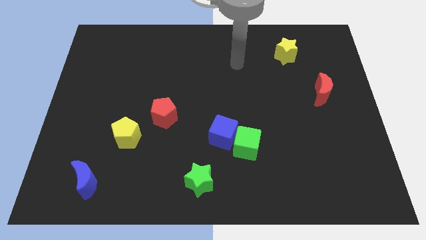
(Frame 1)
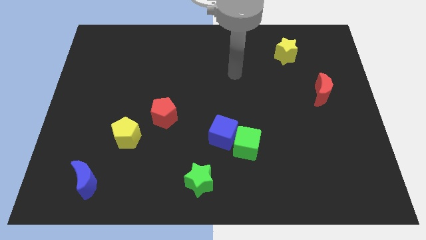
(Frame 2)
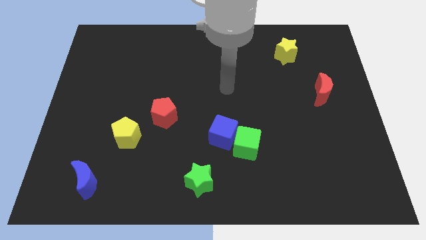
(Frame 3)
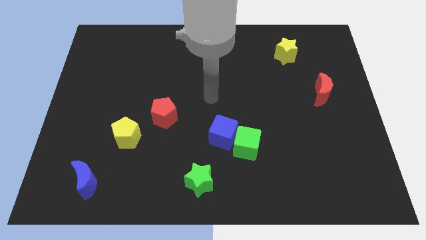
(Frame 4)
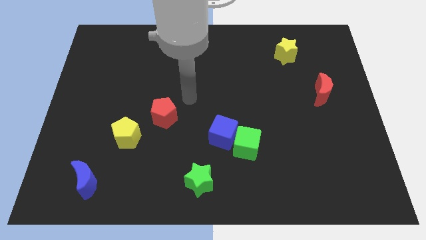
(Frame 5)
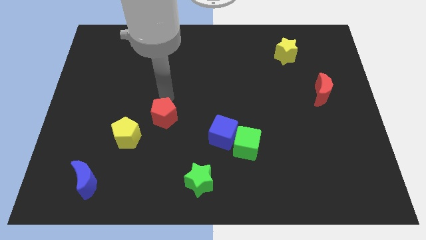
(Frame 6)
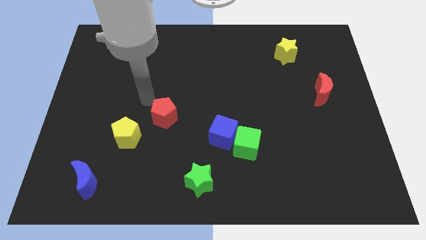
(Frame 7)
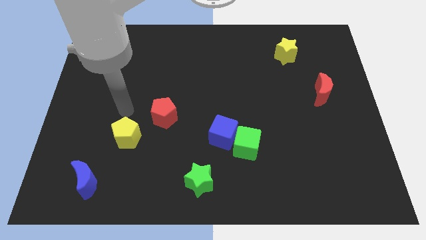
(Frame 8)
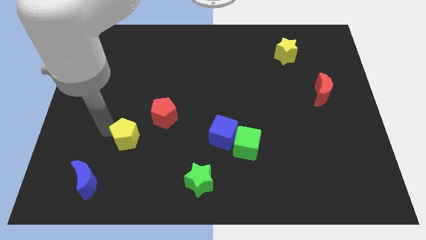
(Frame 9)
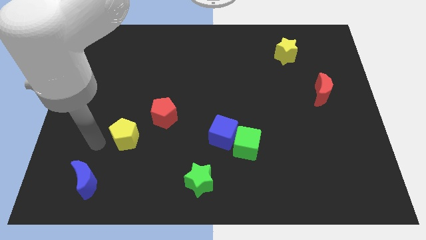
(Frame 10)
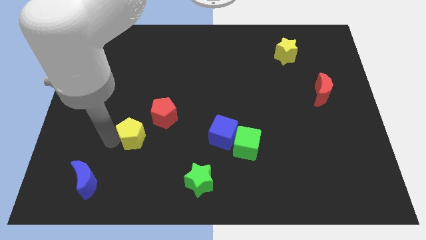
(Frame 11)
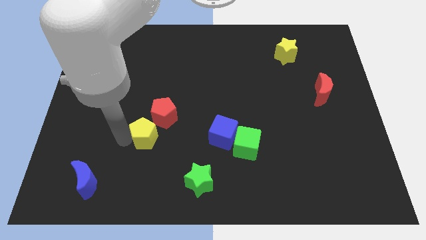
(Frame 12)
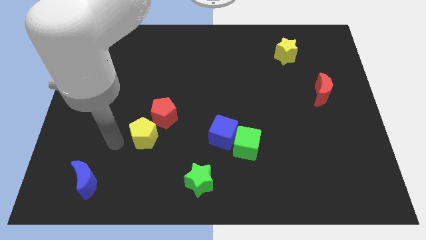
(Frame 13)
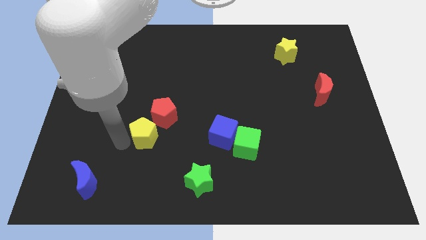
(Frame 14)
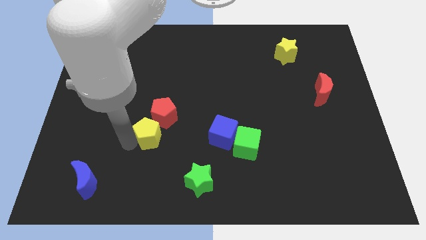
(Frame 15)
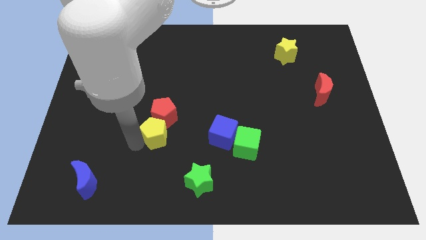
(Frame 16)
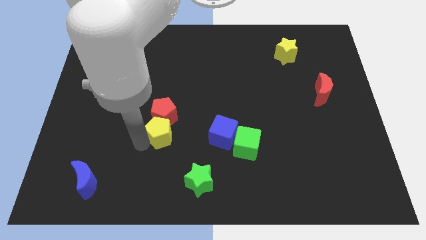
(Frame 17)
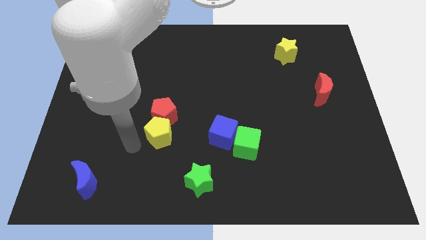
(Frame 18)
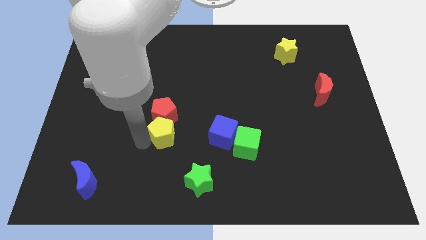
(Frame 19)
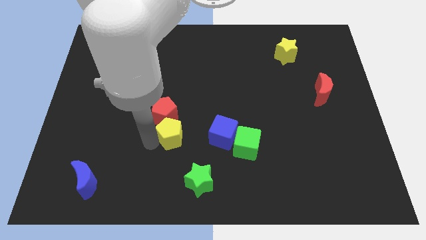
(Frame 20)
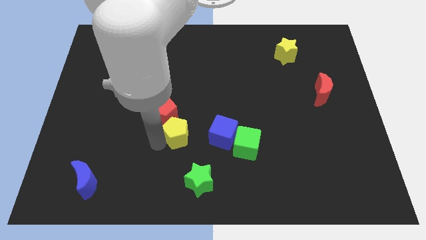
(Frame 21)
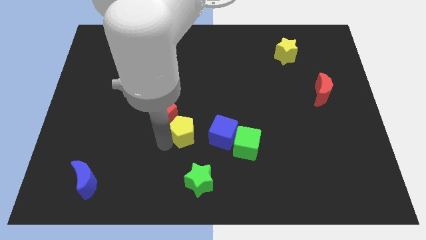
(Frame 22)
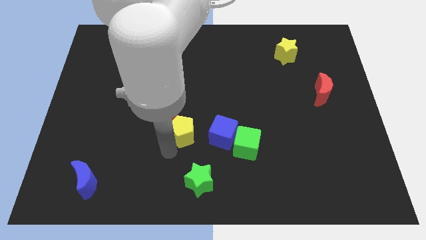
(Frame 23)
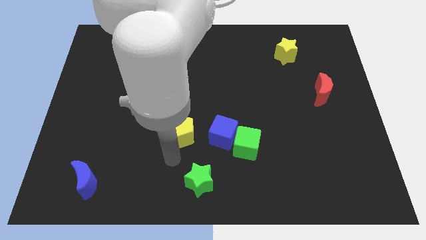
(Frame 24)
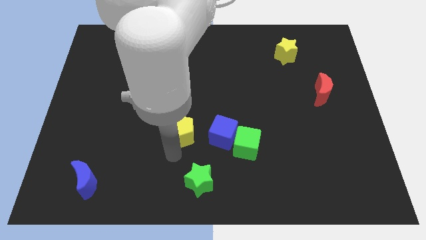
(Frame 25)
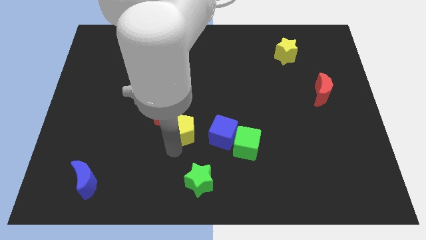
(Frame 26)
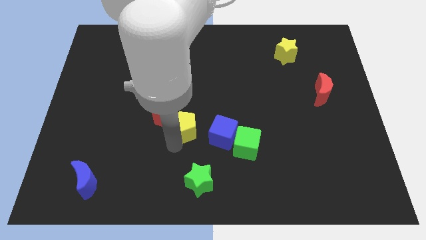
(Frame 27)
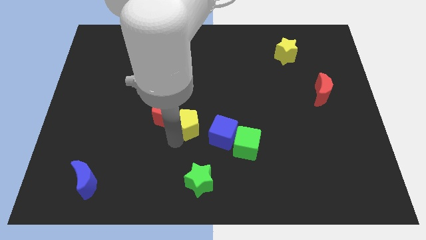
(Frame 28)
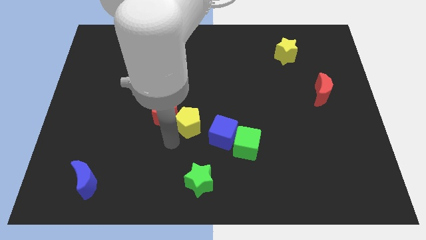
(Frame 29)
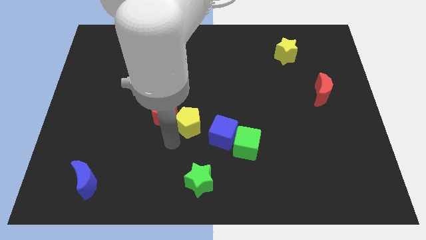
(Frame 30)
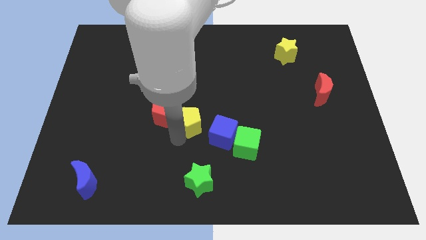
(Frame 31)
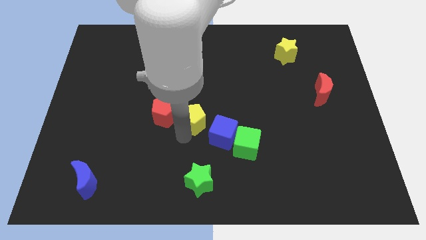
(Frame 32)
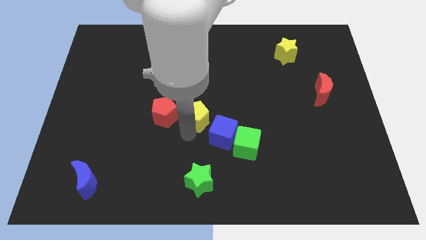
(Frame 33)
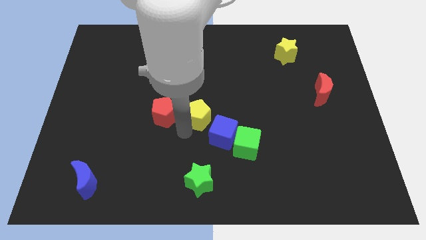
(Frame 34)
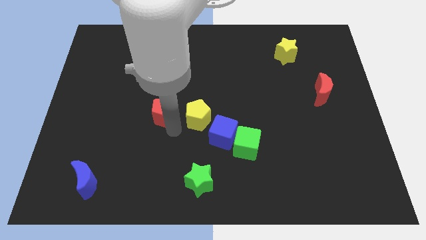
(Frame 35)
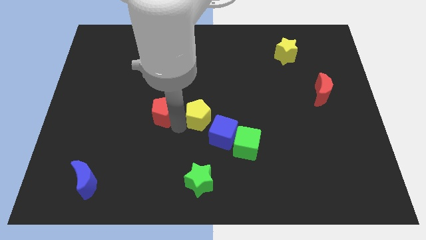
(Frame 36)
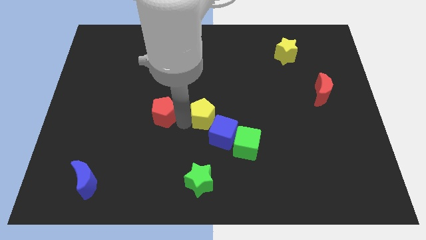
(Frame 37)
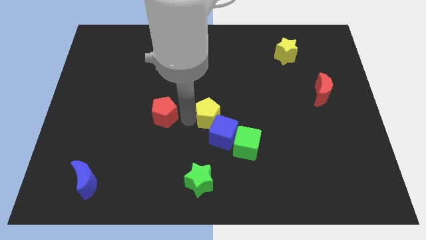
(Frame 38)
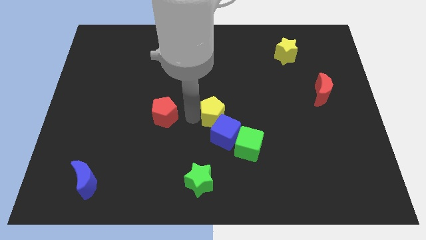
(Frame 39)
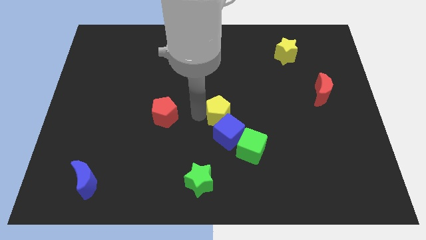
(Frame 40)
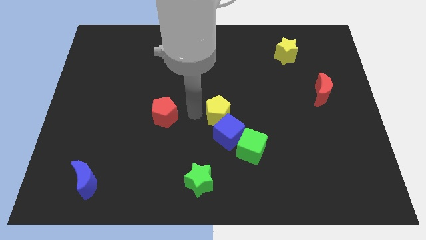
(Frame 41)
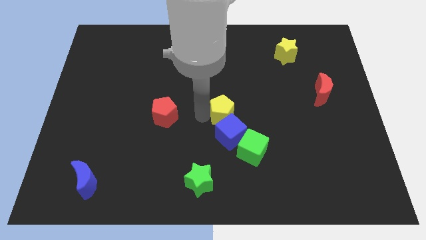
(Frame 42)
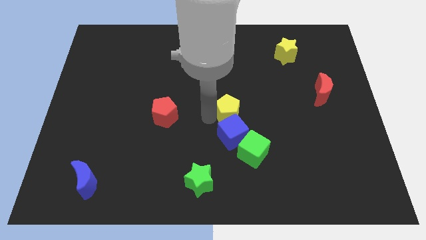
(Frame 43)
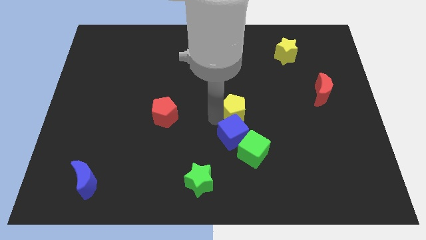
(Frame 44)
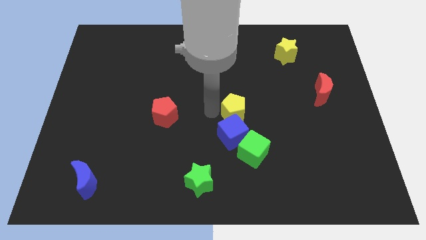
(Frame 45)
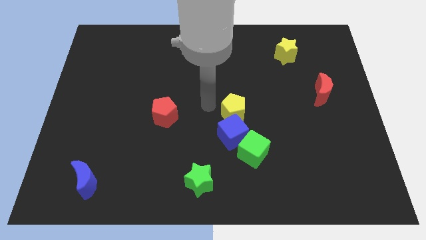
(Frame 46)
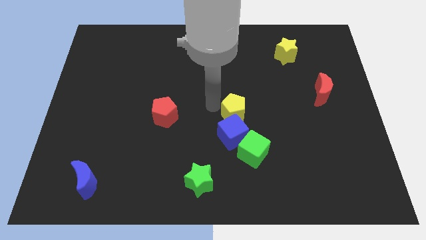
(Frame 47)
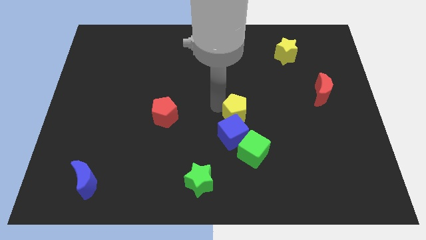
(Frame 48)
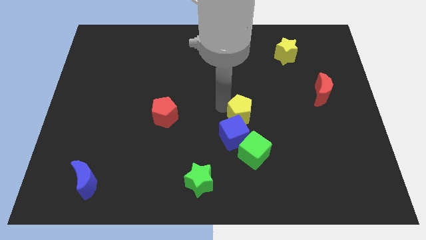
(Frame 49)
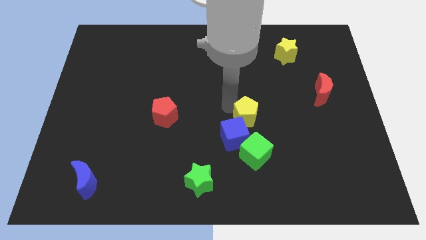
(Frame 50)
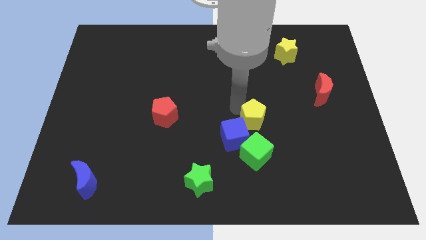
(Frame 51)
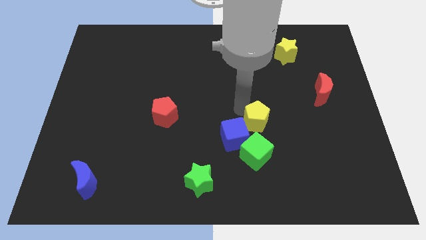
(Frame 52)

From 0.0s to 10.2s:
move the yellow pentagon just right of the blue cube

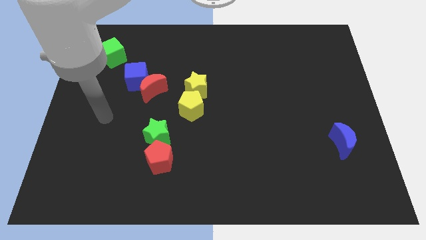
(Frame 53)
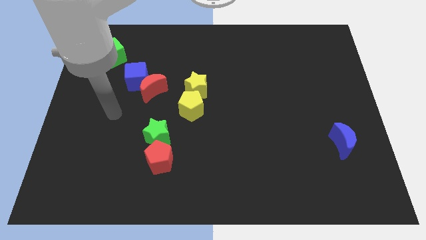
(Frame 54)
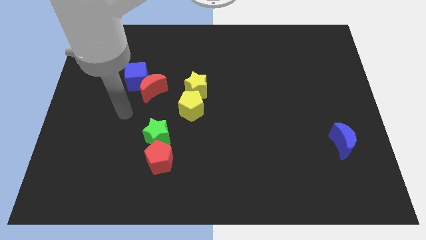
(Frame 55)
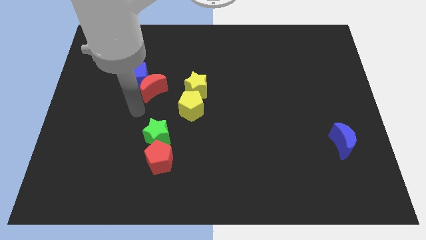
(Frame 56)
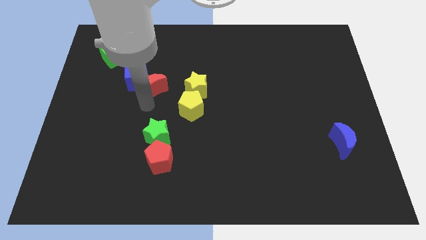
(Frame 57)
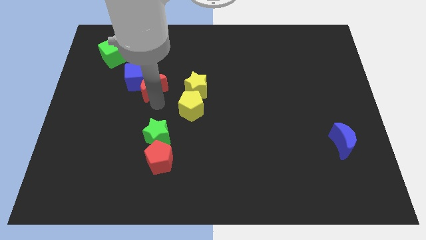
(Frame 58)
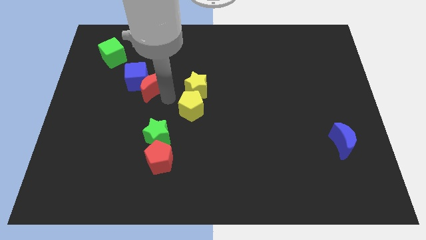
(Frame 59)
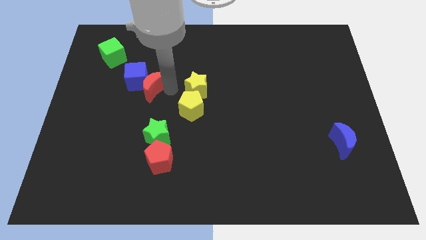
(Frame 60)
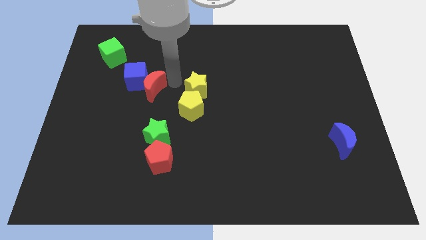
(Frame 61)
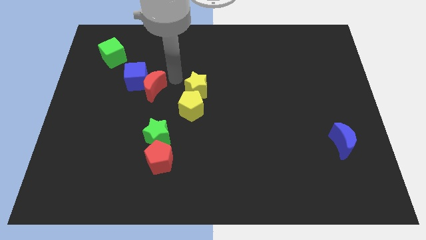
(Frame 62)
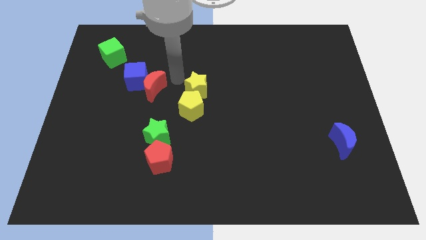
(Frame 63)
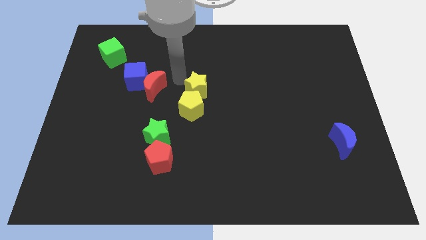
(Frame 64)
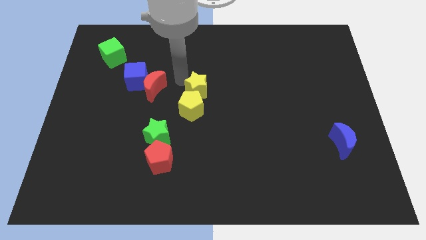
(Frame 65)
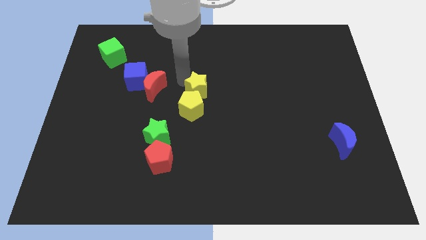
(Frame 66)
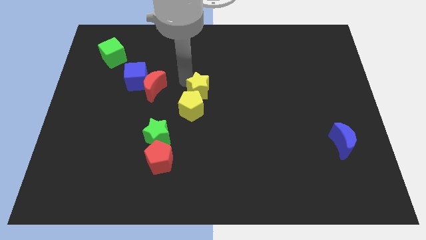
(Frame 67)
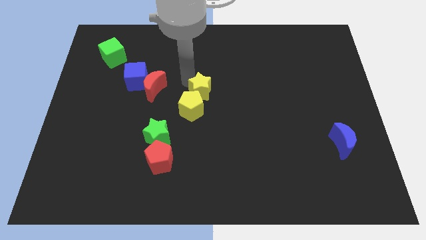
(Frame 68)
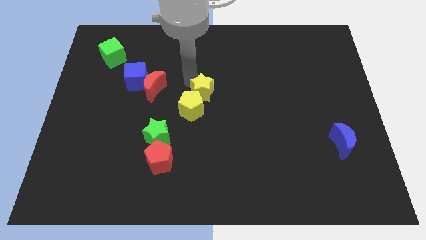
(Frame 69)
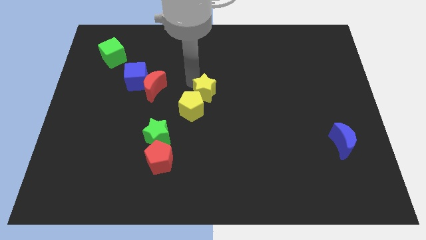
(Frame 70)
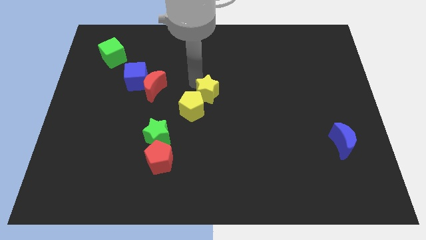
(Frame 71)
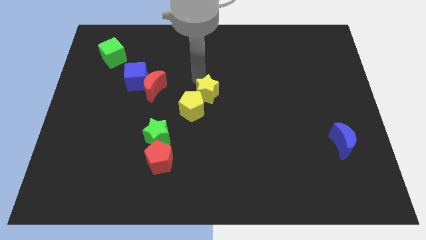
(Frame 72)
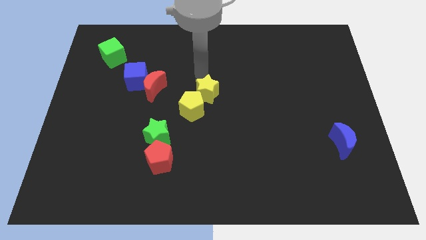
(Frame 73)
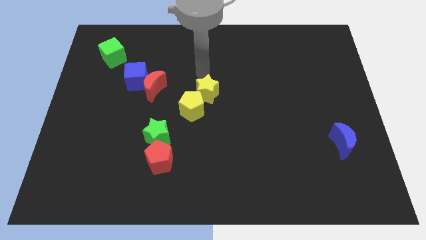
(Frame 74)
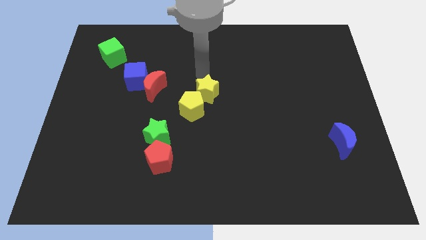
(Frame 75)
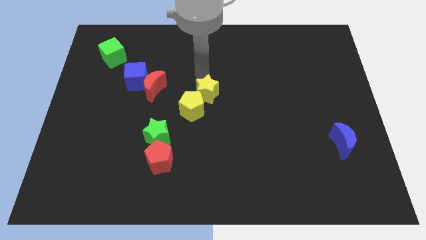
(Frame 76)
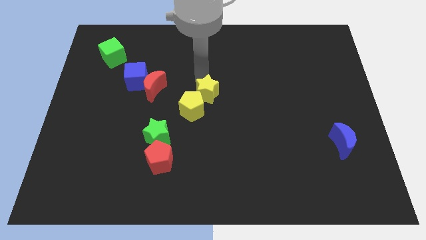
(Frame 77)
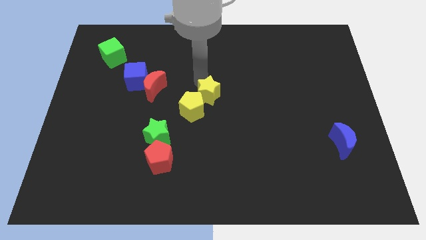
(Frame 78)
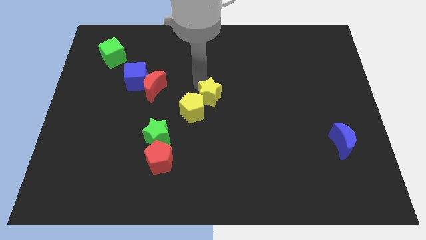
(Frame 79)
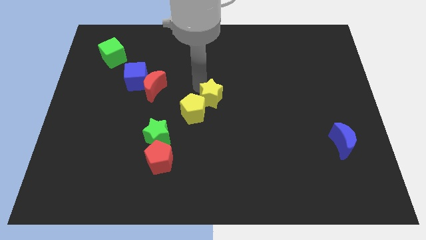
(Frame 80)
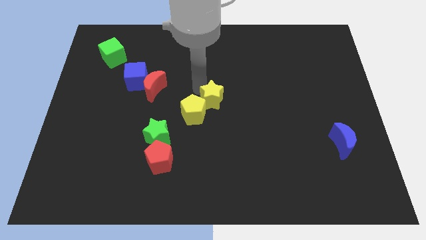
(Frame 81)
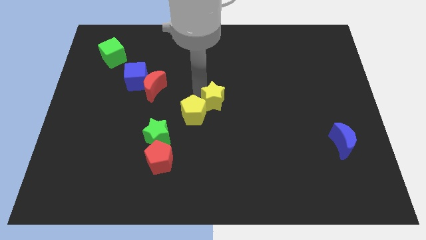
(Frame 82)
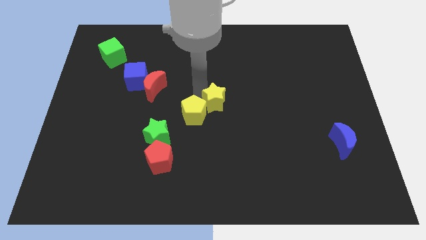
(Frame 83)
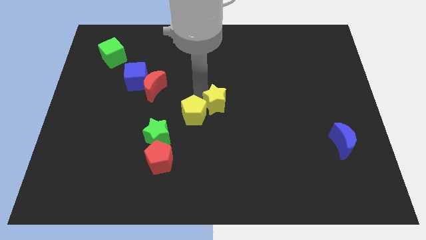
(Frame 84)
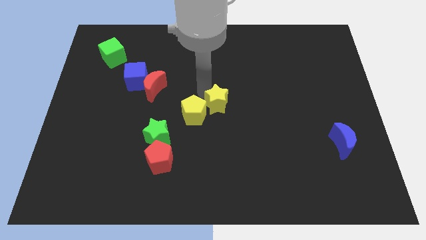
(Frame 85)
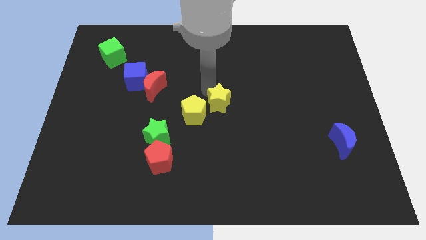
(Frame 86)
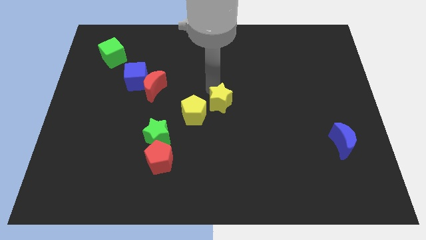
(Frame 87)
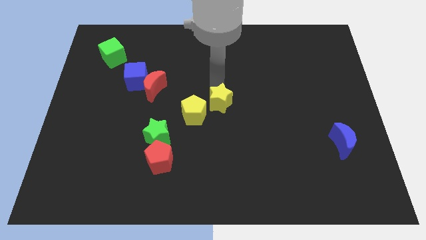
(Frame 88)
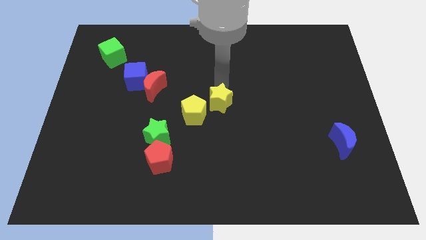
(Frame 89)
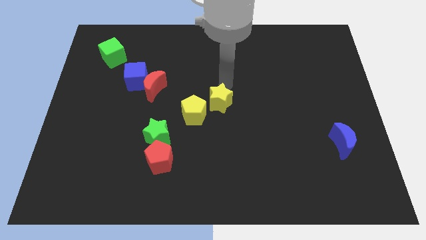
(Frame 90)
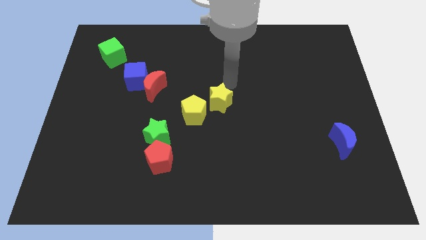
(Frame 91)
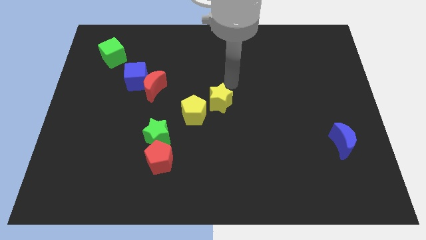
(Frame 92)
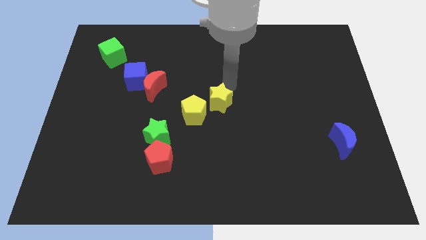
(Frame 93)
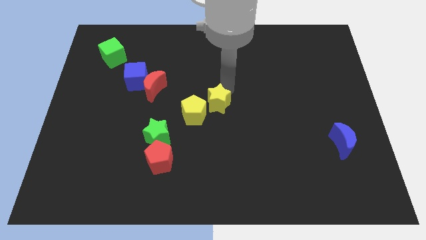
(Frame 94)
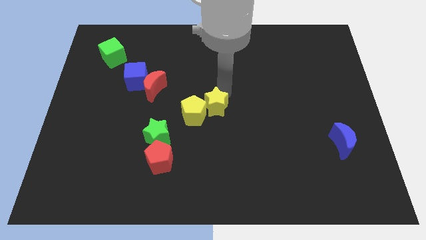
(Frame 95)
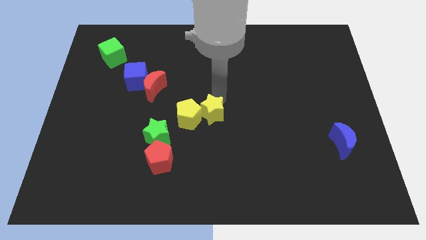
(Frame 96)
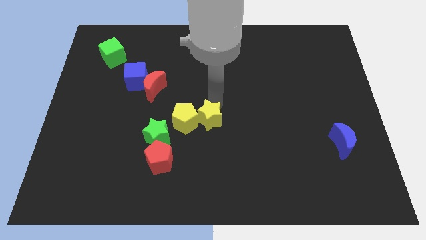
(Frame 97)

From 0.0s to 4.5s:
put the yellow star to the right of the green star
